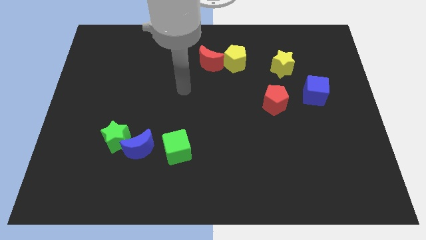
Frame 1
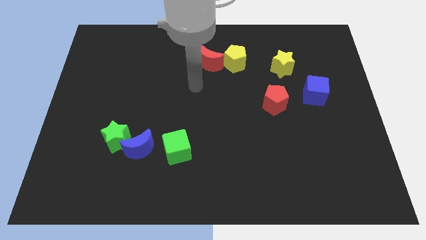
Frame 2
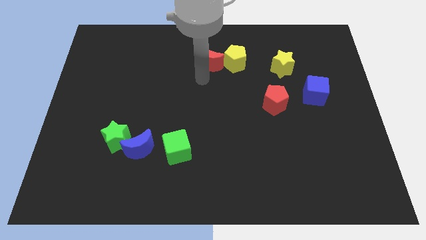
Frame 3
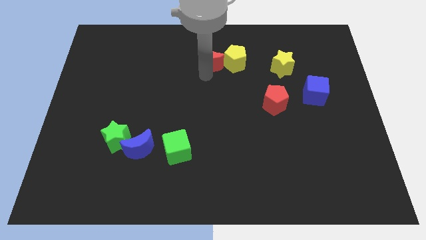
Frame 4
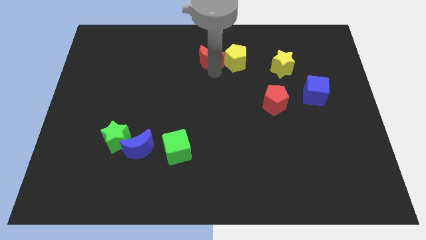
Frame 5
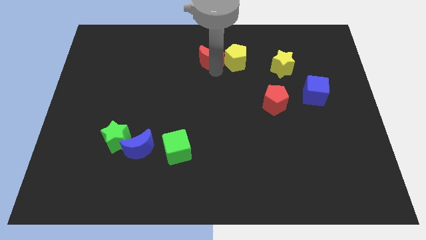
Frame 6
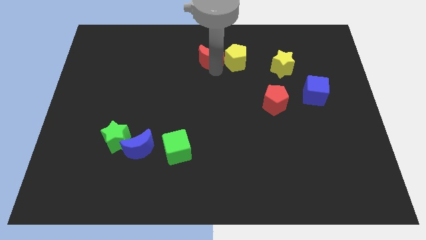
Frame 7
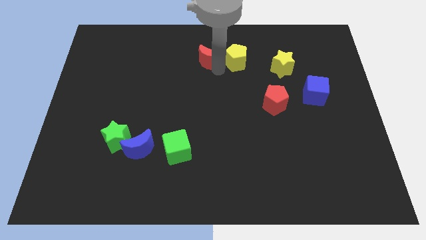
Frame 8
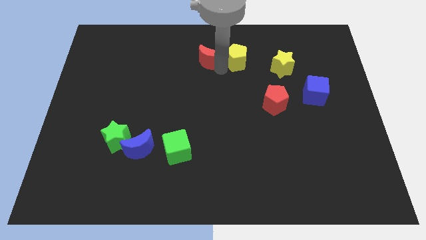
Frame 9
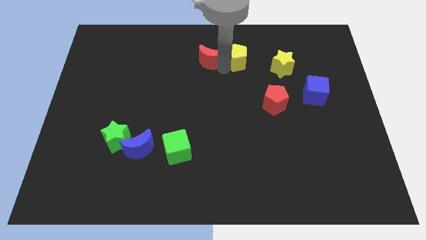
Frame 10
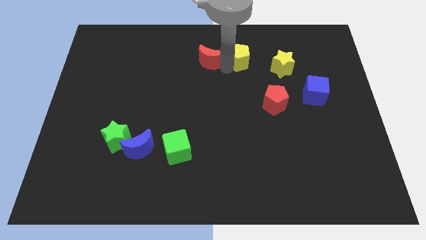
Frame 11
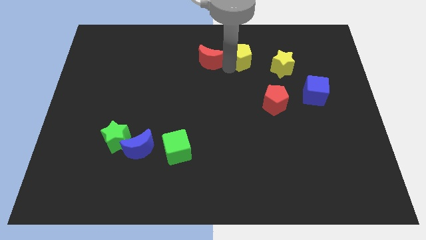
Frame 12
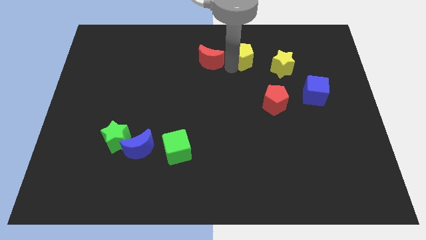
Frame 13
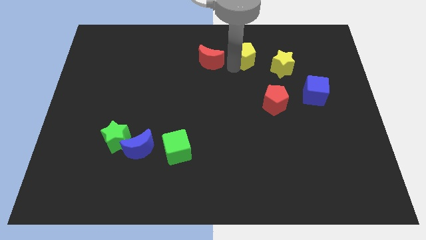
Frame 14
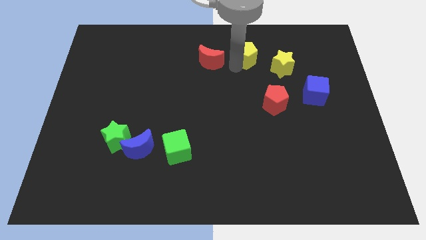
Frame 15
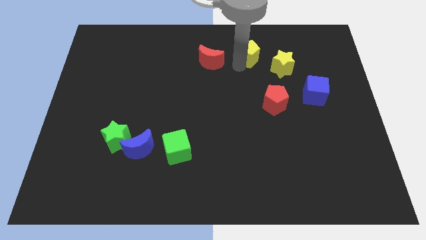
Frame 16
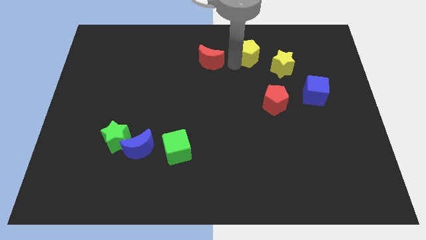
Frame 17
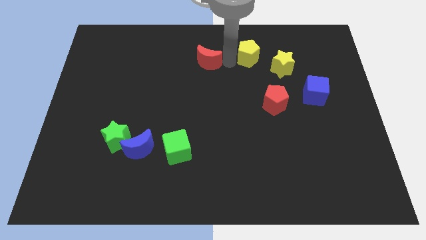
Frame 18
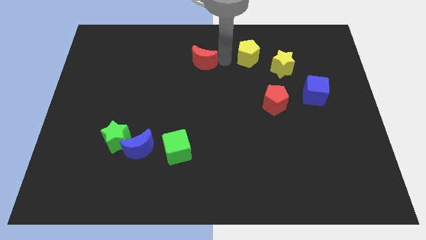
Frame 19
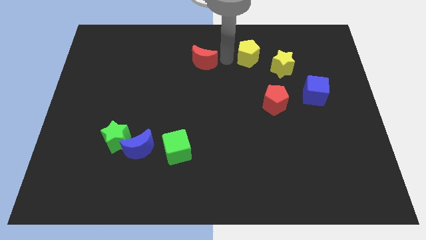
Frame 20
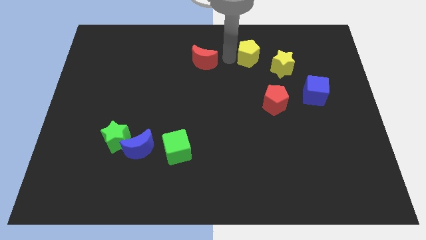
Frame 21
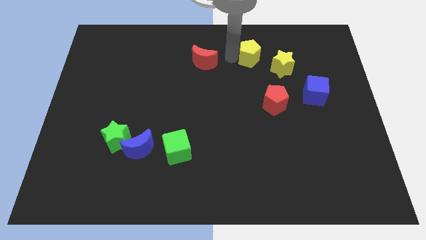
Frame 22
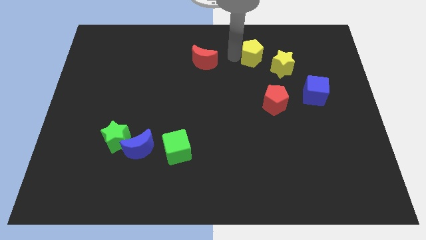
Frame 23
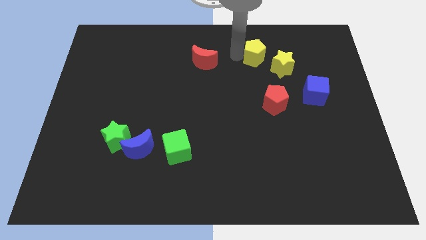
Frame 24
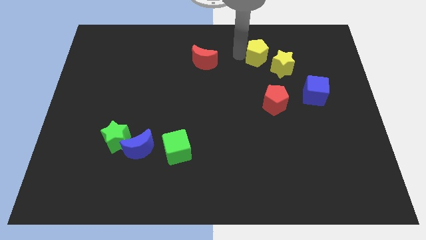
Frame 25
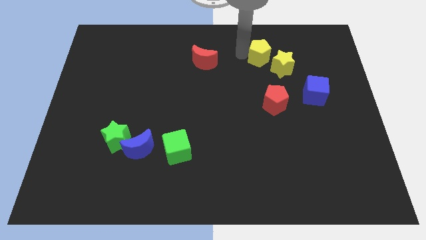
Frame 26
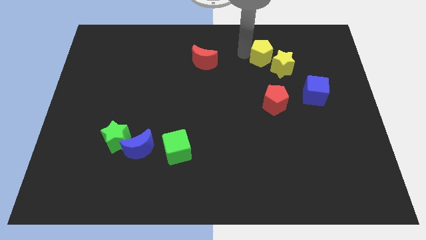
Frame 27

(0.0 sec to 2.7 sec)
move the yellow pentagon to the right a bit

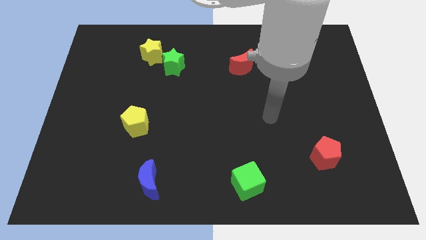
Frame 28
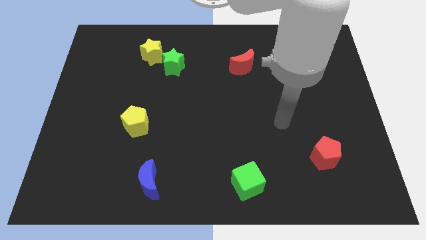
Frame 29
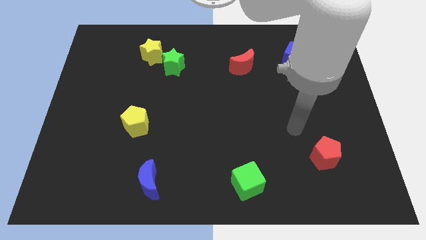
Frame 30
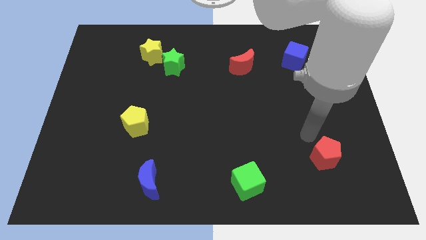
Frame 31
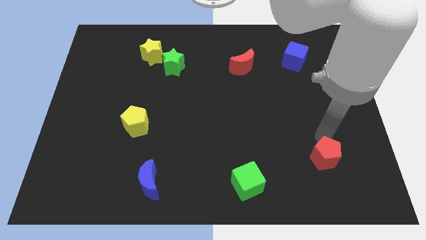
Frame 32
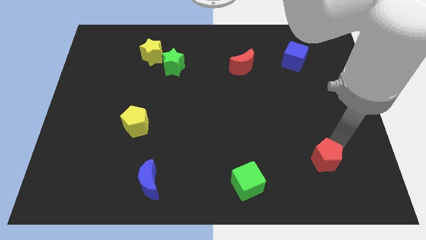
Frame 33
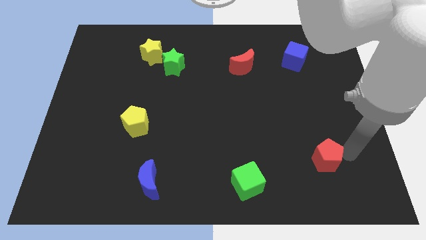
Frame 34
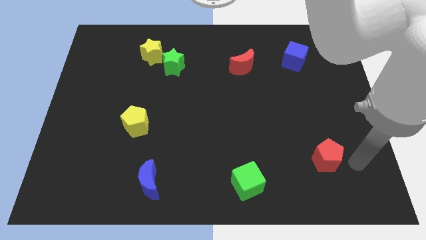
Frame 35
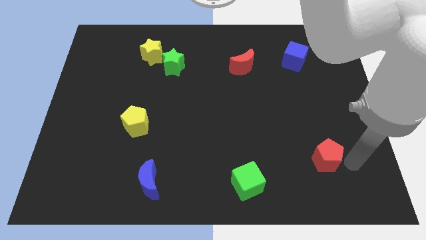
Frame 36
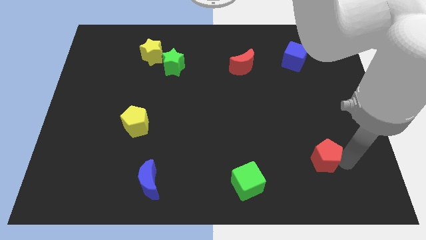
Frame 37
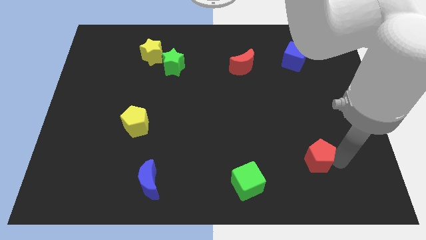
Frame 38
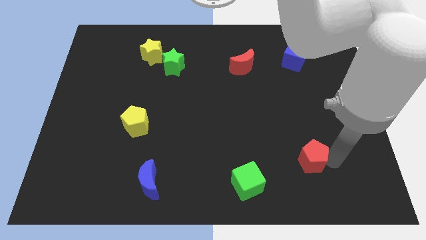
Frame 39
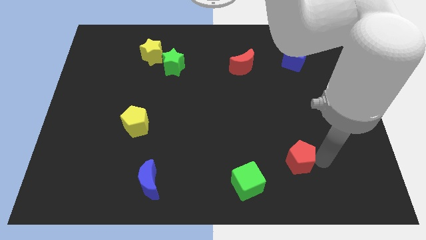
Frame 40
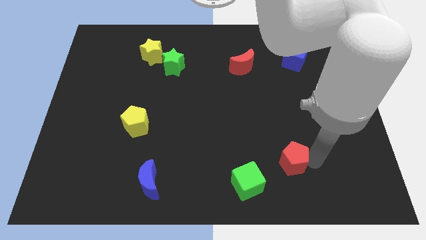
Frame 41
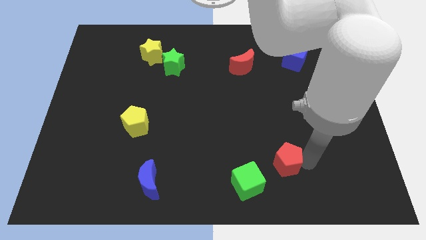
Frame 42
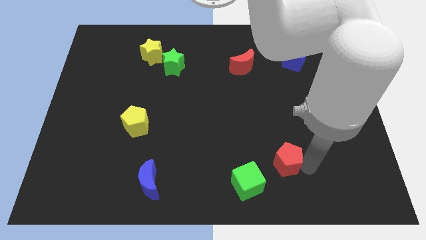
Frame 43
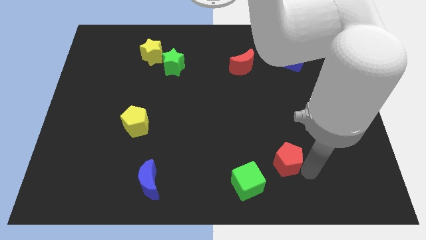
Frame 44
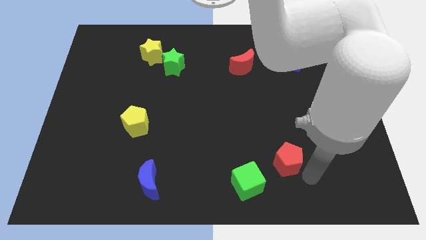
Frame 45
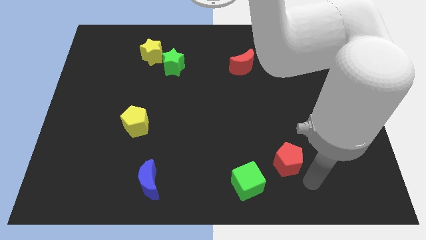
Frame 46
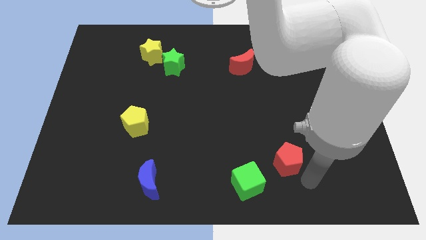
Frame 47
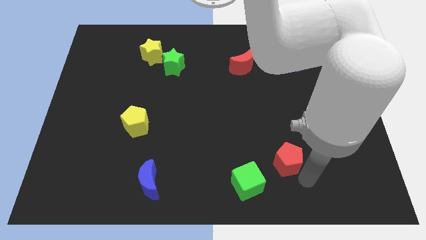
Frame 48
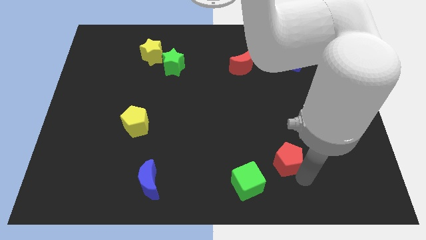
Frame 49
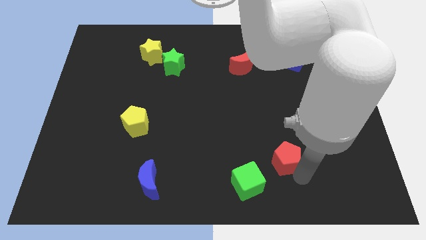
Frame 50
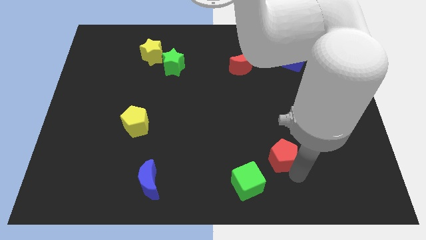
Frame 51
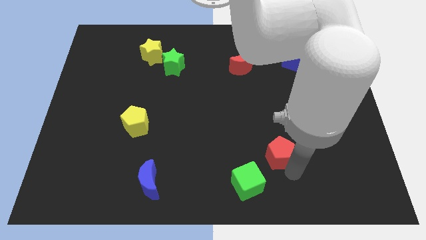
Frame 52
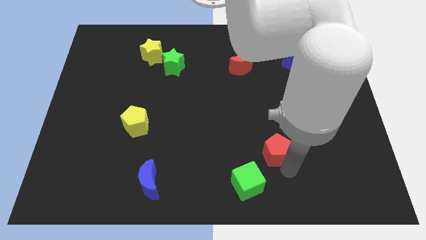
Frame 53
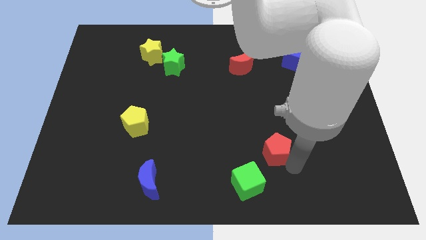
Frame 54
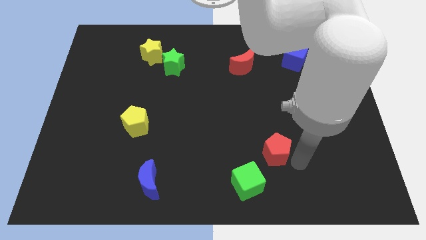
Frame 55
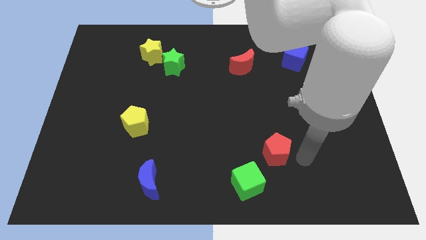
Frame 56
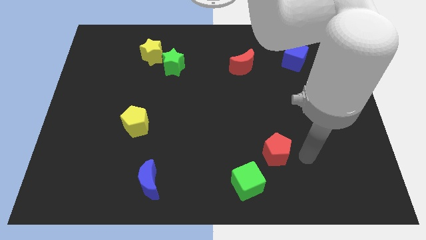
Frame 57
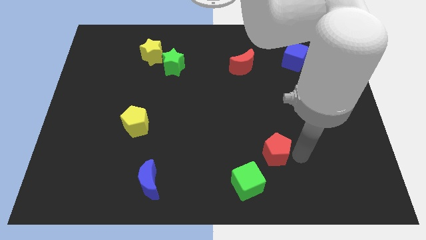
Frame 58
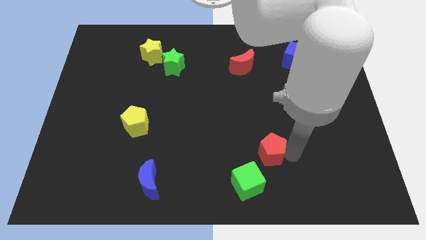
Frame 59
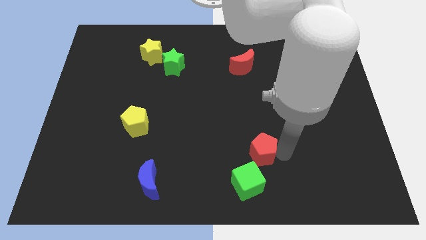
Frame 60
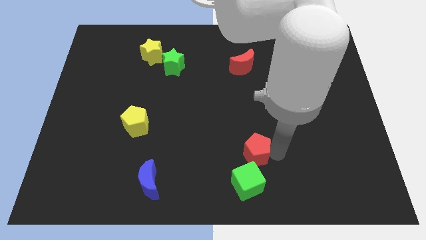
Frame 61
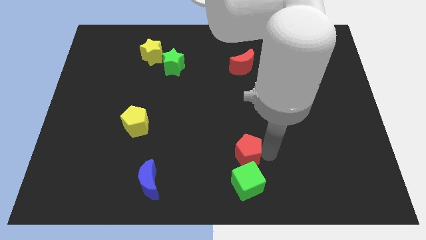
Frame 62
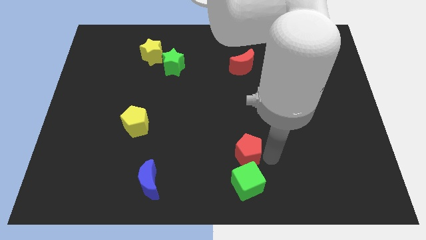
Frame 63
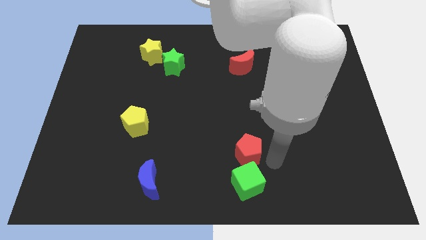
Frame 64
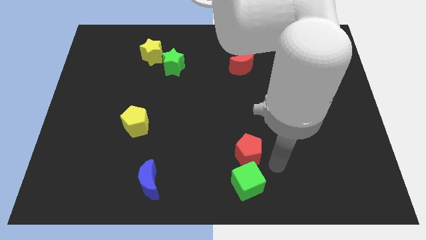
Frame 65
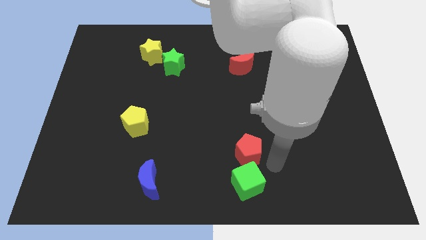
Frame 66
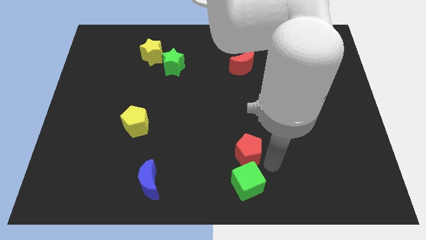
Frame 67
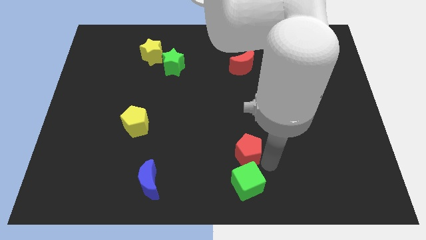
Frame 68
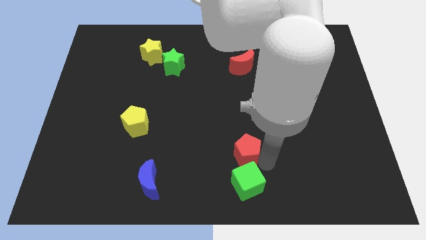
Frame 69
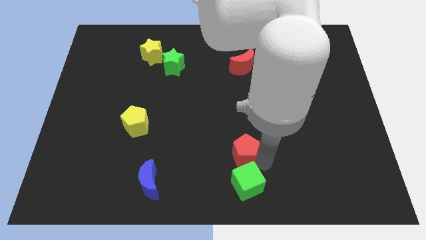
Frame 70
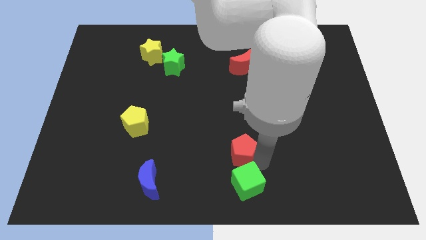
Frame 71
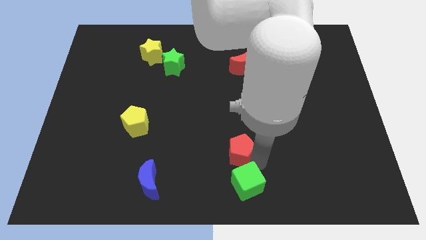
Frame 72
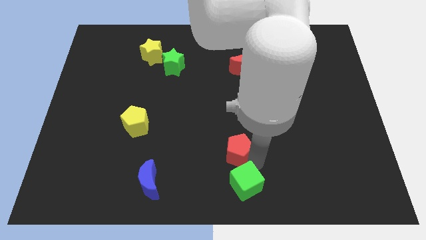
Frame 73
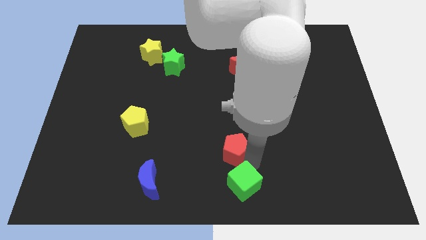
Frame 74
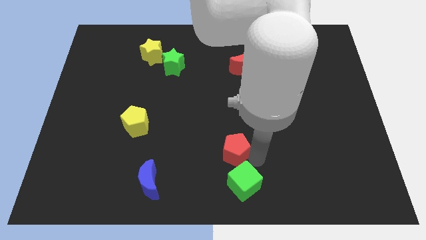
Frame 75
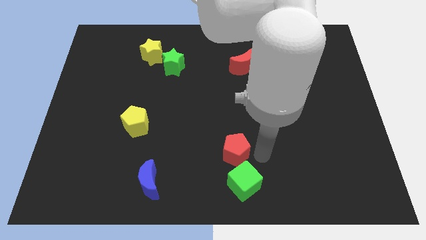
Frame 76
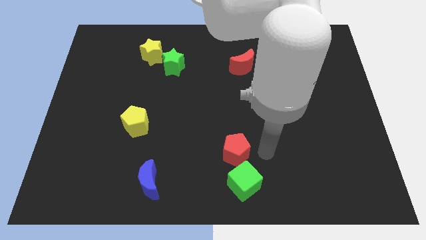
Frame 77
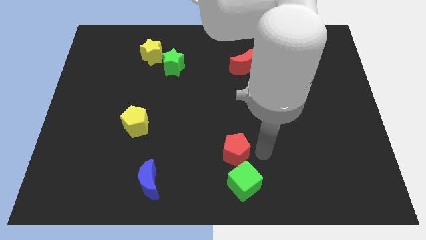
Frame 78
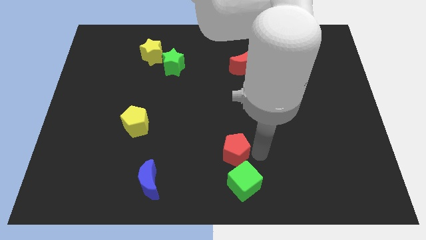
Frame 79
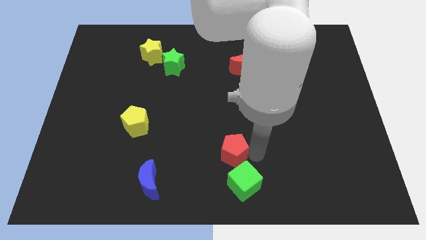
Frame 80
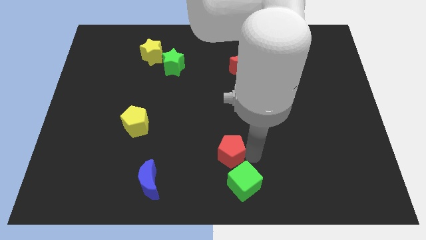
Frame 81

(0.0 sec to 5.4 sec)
move the red pentagon to the left
